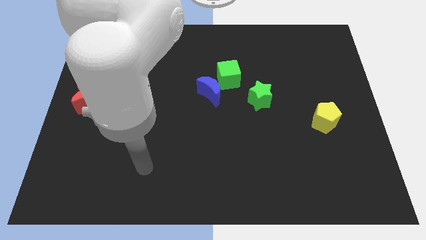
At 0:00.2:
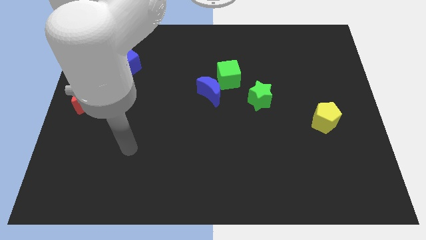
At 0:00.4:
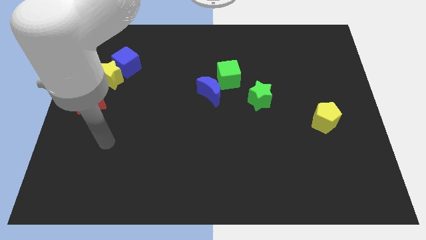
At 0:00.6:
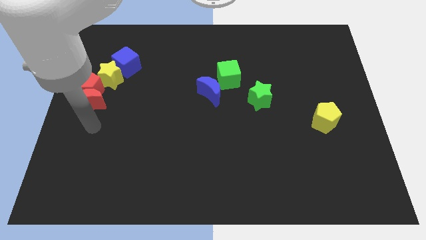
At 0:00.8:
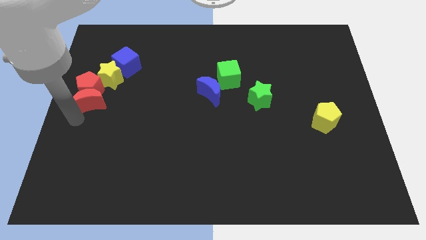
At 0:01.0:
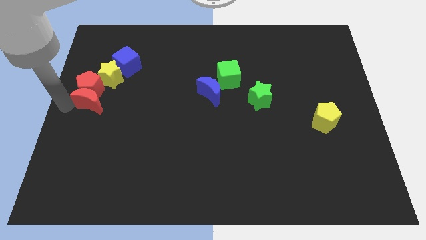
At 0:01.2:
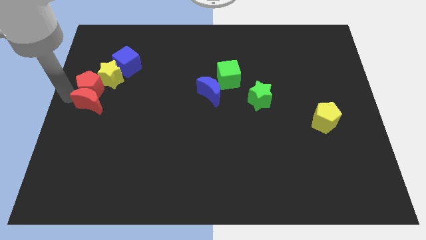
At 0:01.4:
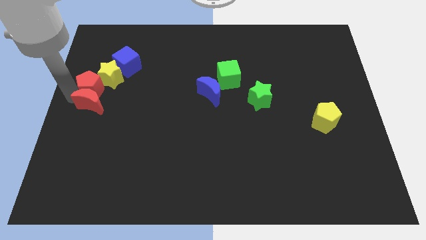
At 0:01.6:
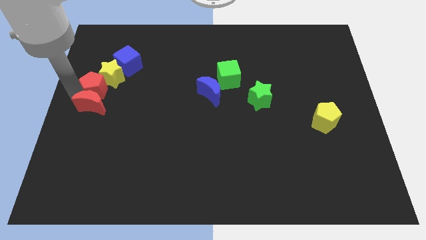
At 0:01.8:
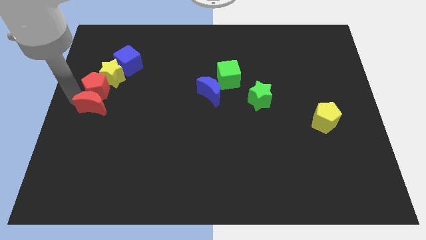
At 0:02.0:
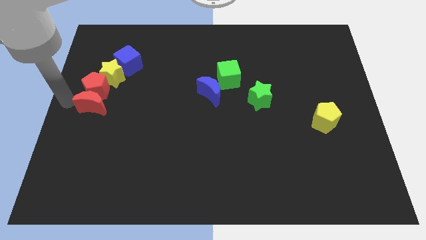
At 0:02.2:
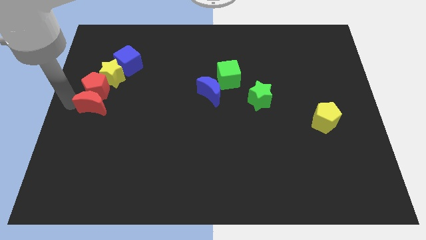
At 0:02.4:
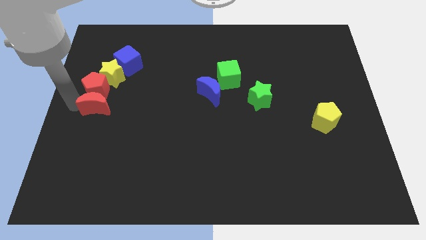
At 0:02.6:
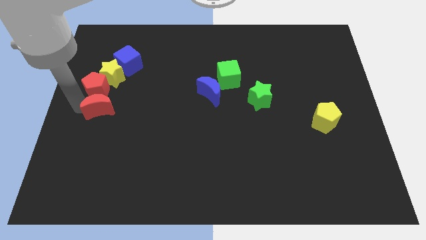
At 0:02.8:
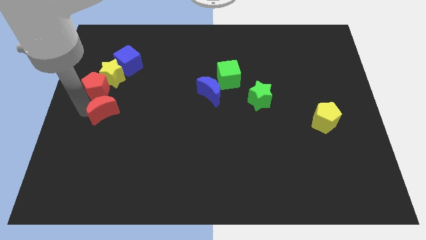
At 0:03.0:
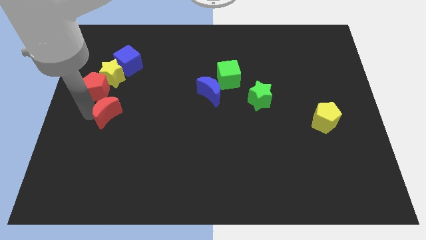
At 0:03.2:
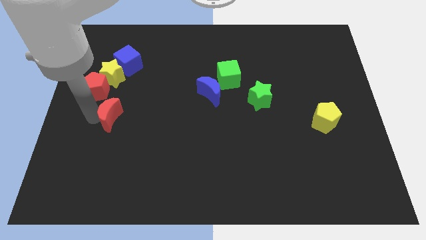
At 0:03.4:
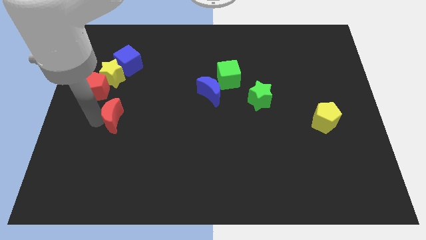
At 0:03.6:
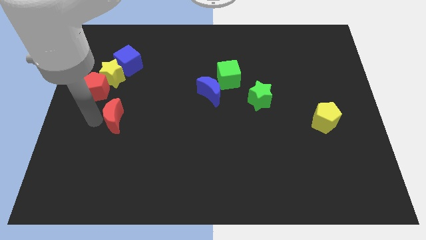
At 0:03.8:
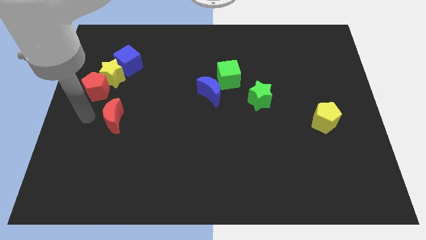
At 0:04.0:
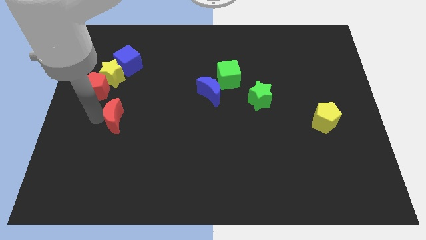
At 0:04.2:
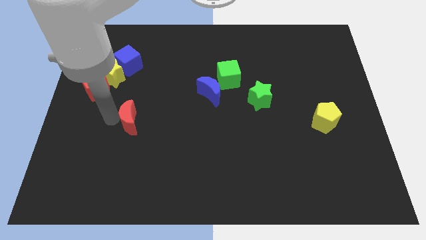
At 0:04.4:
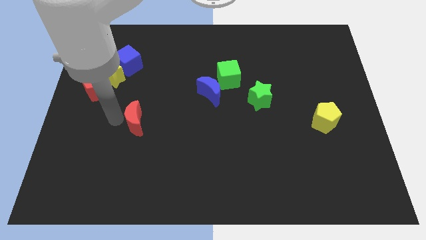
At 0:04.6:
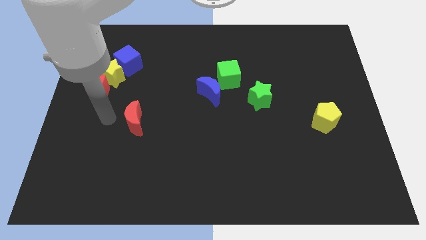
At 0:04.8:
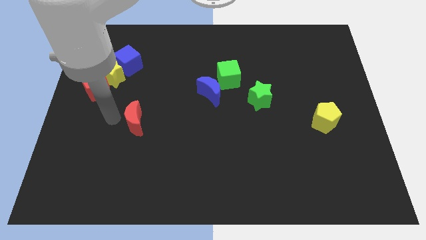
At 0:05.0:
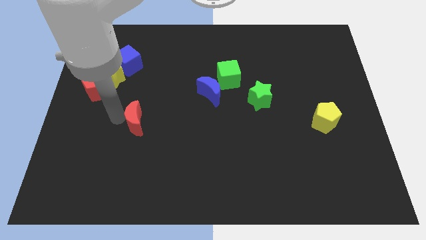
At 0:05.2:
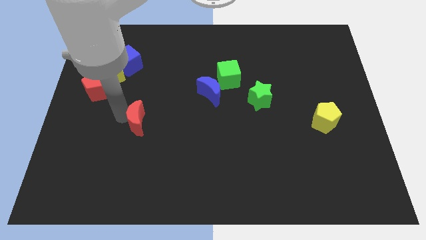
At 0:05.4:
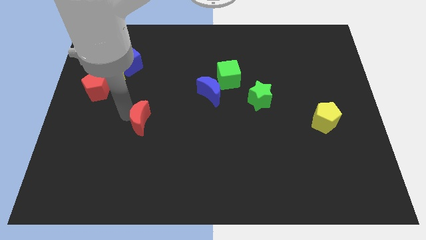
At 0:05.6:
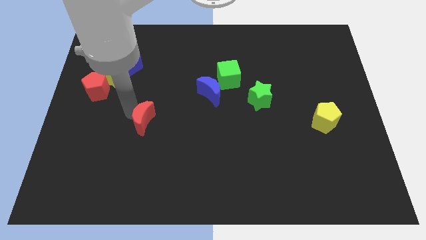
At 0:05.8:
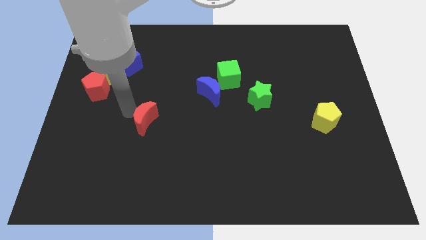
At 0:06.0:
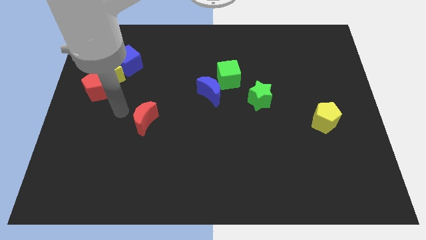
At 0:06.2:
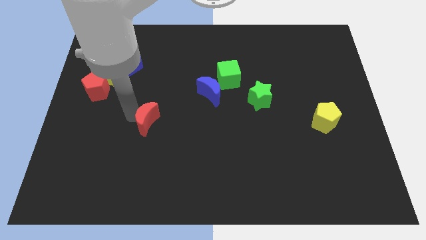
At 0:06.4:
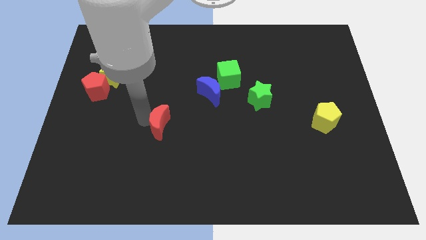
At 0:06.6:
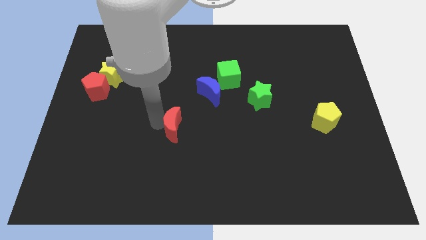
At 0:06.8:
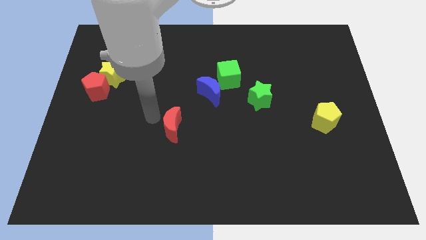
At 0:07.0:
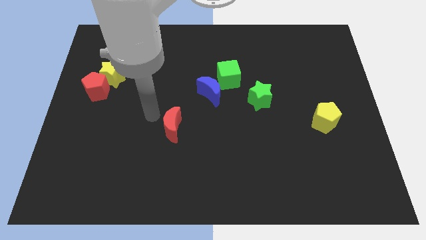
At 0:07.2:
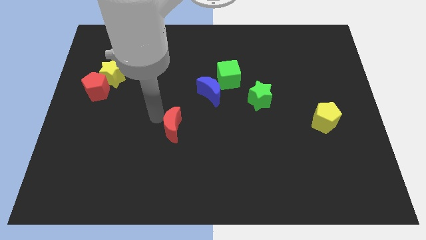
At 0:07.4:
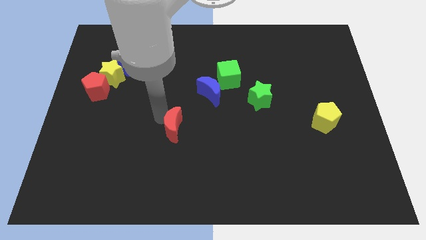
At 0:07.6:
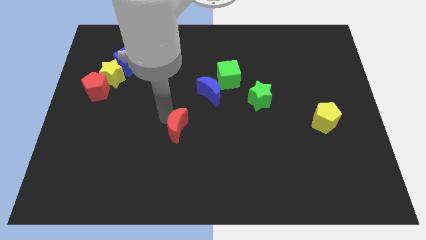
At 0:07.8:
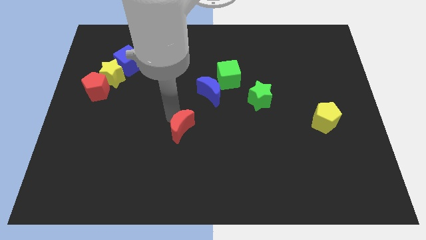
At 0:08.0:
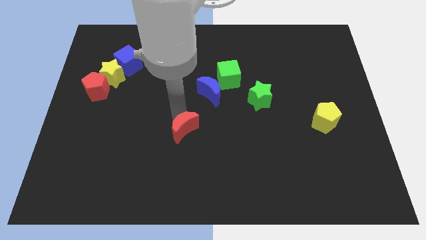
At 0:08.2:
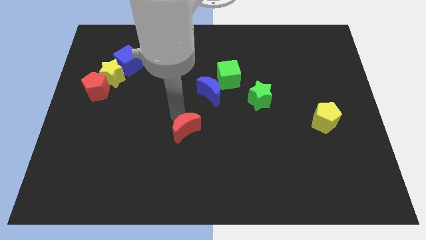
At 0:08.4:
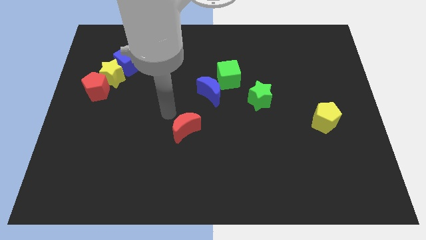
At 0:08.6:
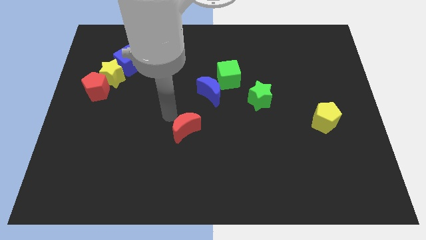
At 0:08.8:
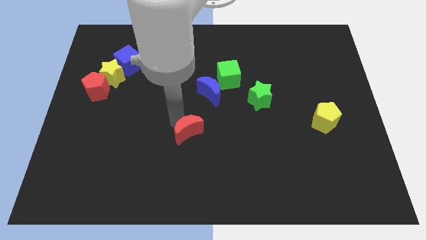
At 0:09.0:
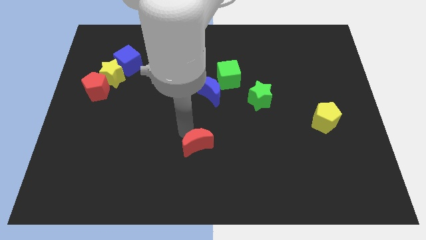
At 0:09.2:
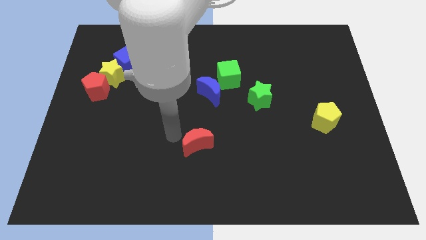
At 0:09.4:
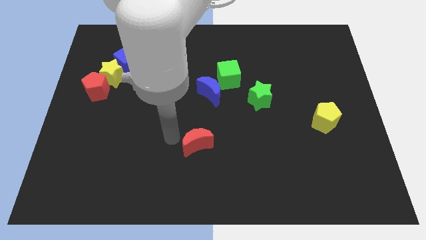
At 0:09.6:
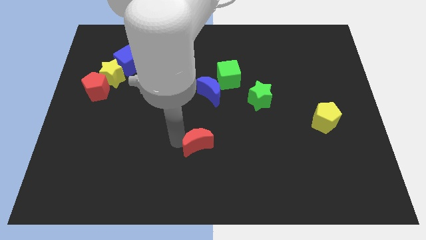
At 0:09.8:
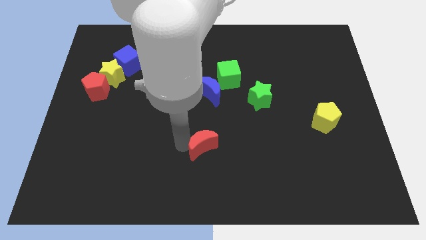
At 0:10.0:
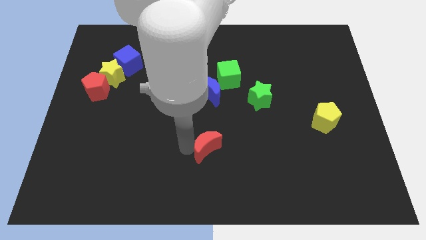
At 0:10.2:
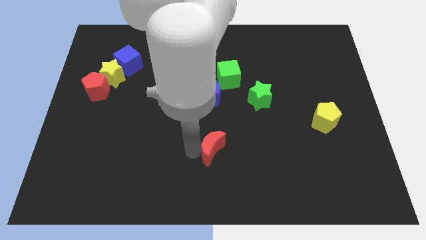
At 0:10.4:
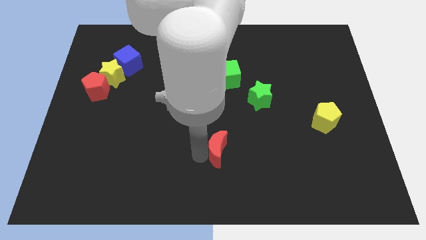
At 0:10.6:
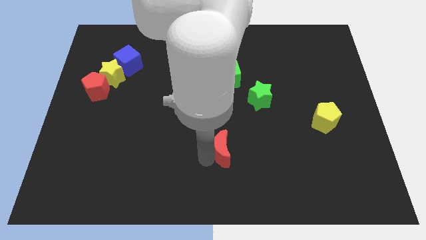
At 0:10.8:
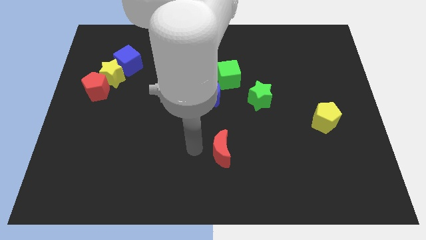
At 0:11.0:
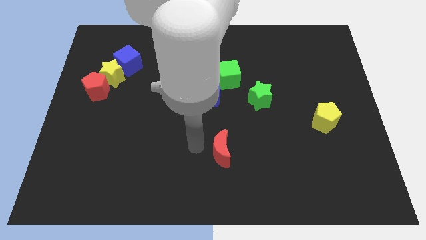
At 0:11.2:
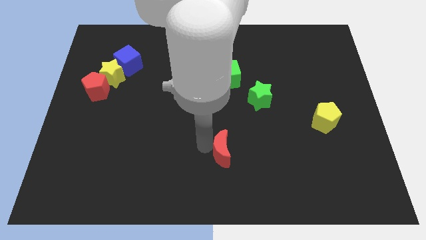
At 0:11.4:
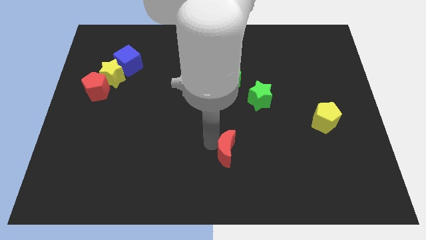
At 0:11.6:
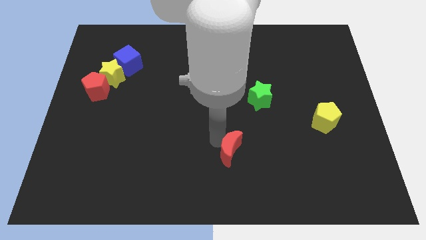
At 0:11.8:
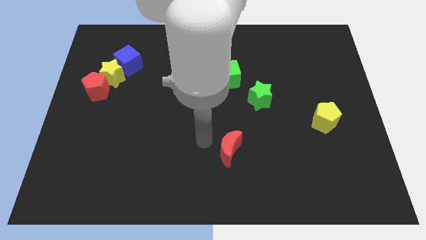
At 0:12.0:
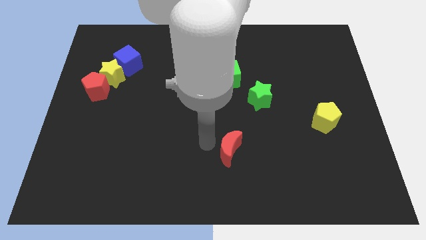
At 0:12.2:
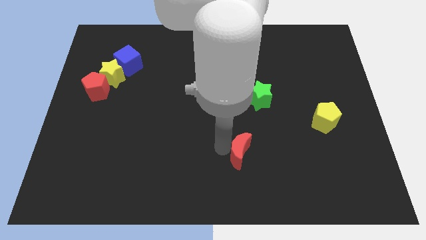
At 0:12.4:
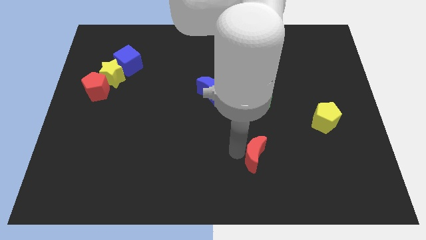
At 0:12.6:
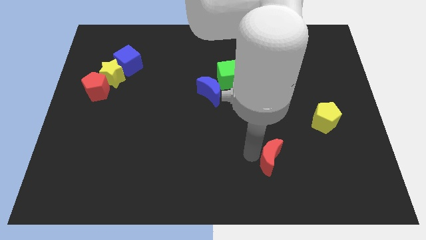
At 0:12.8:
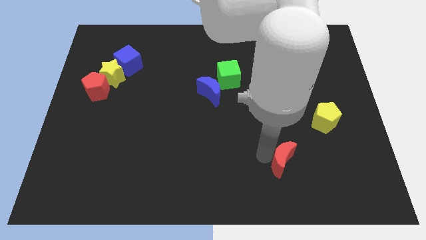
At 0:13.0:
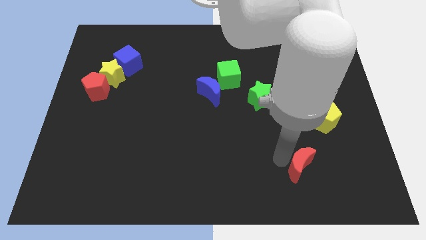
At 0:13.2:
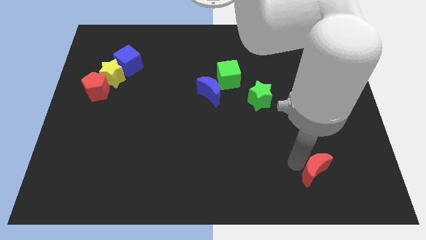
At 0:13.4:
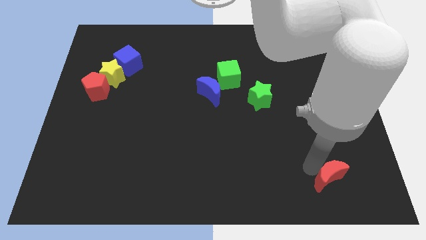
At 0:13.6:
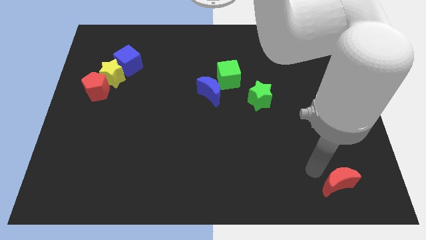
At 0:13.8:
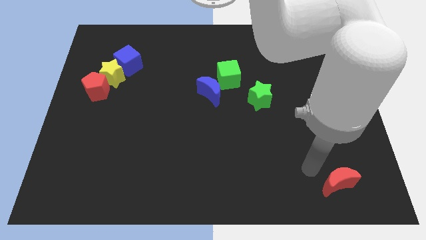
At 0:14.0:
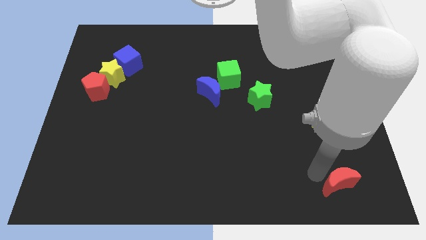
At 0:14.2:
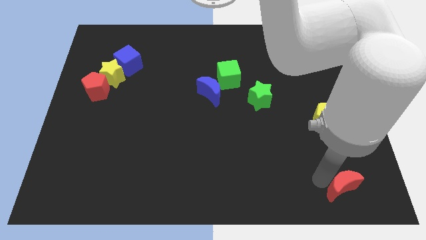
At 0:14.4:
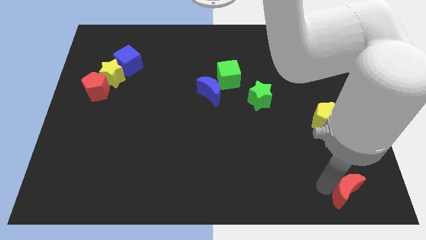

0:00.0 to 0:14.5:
move the red moon to the bottom right of the board
